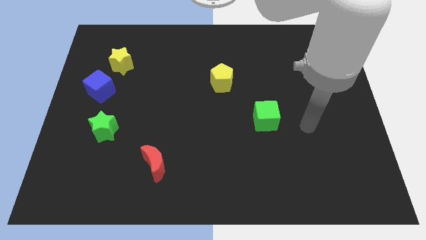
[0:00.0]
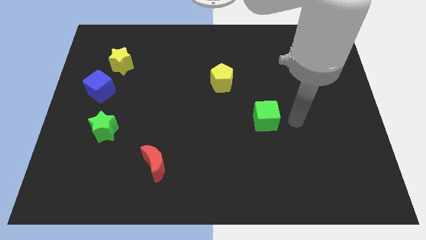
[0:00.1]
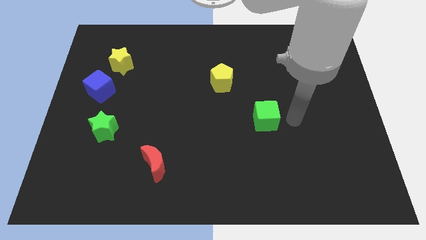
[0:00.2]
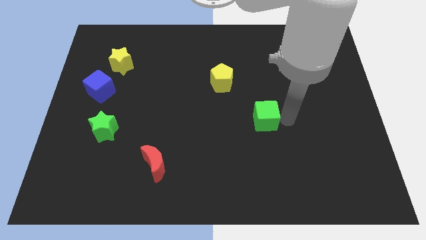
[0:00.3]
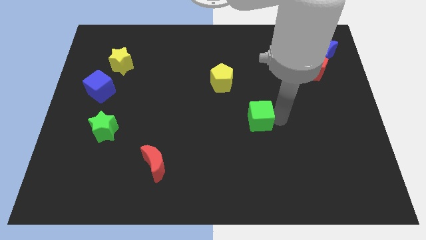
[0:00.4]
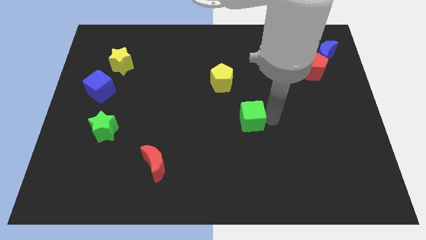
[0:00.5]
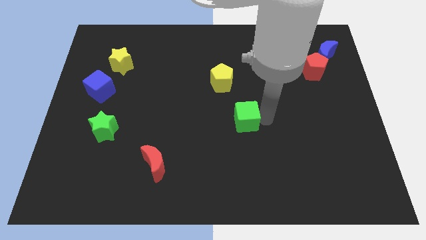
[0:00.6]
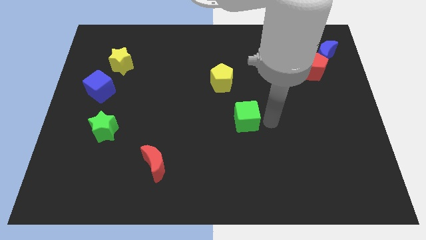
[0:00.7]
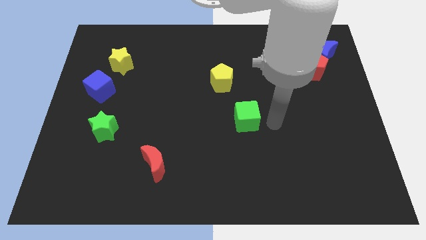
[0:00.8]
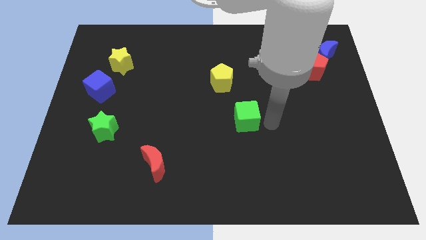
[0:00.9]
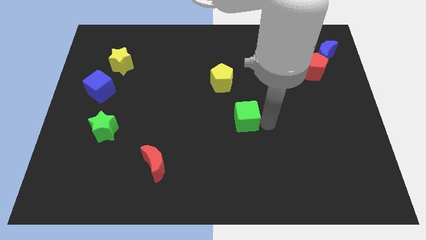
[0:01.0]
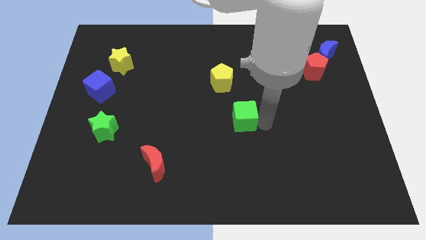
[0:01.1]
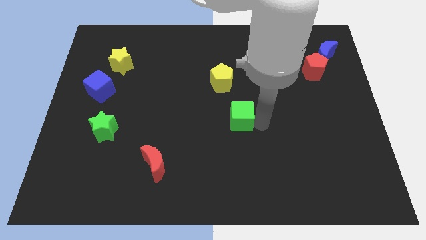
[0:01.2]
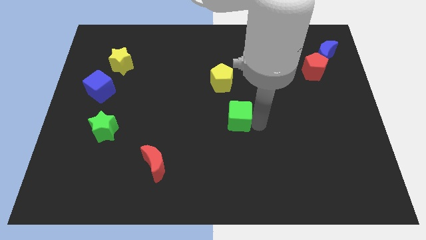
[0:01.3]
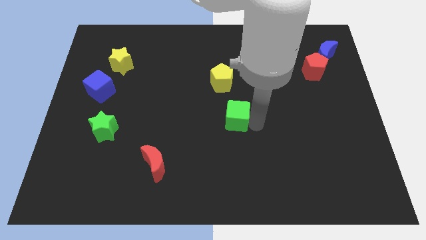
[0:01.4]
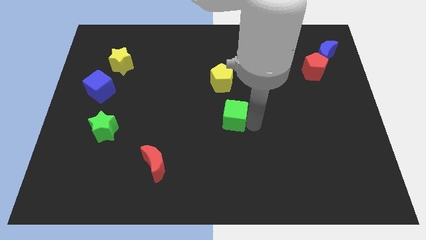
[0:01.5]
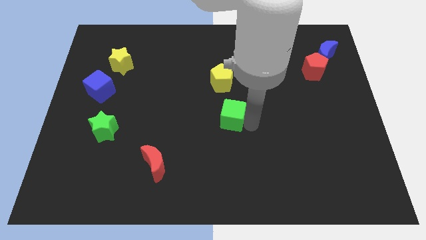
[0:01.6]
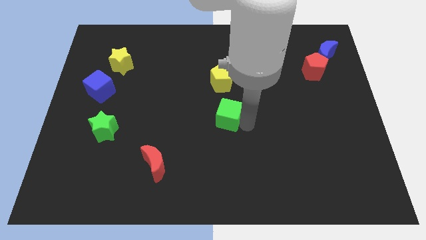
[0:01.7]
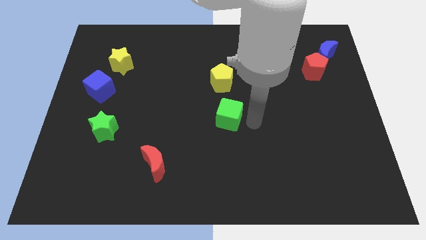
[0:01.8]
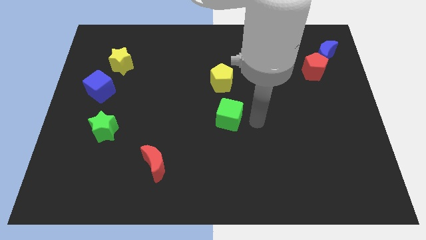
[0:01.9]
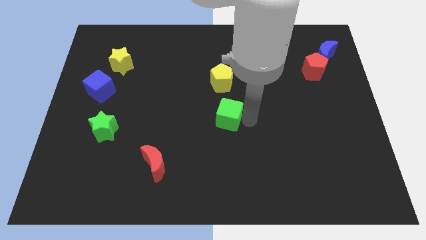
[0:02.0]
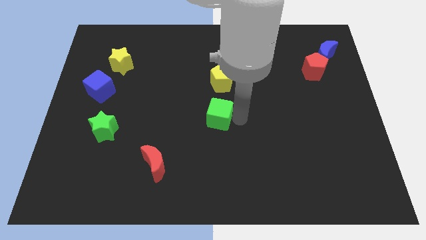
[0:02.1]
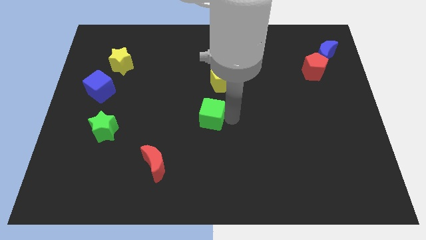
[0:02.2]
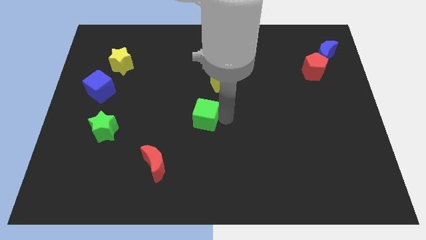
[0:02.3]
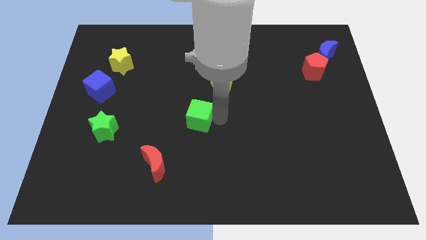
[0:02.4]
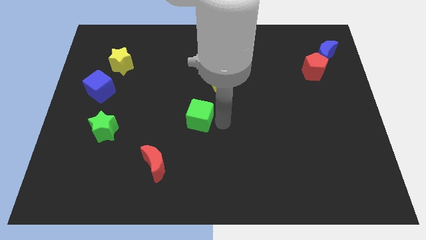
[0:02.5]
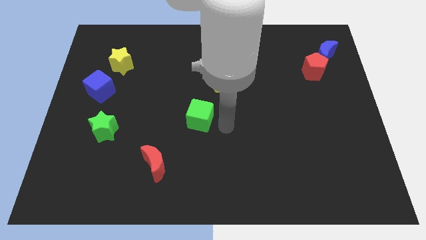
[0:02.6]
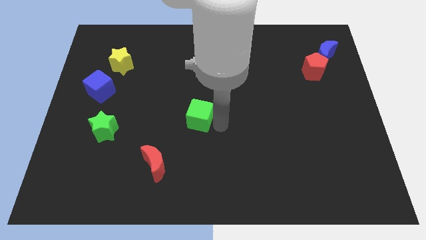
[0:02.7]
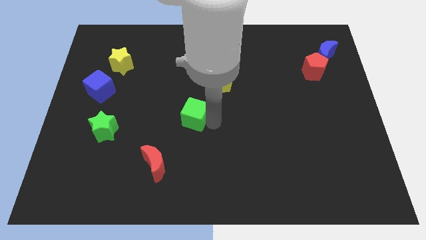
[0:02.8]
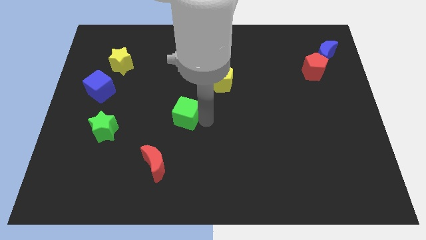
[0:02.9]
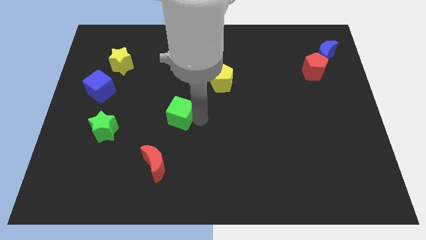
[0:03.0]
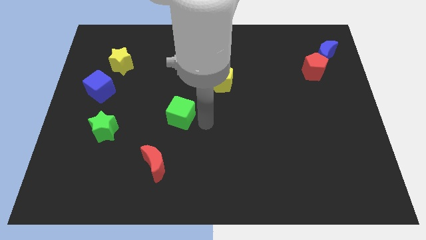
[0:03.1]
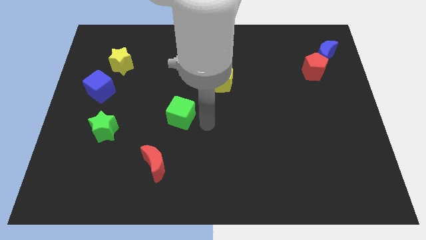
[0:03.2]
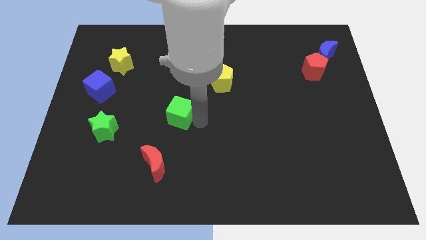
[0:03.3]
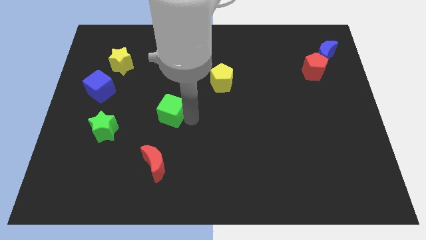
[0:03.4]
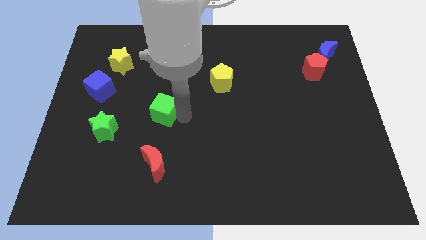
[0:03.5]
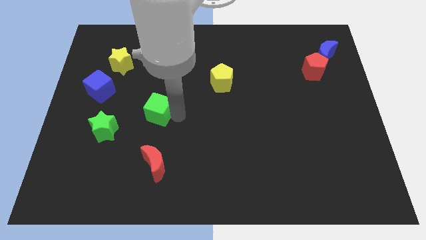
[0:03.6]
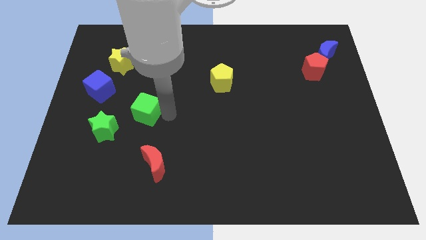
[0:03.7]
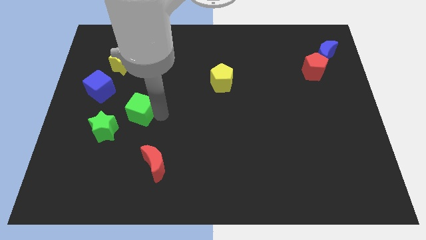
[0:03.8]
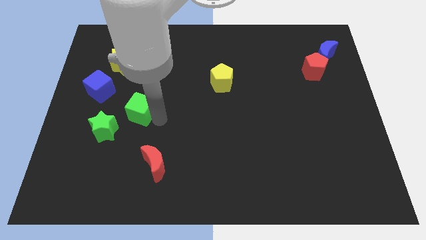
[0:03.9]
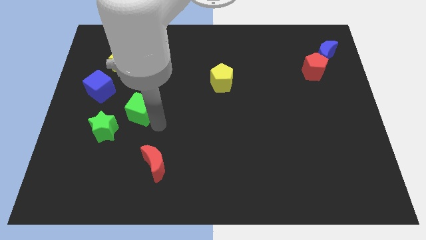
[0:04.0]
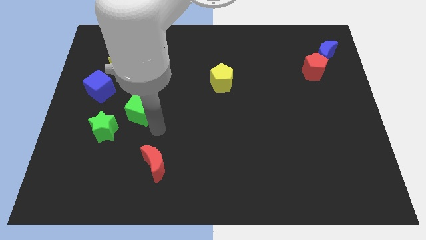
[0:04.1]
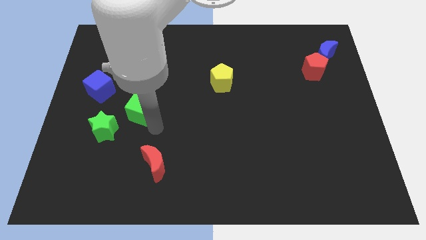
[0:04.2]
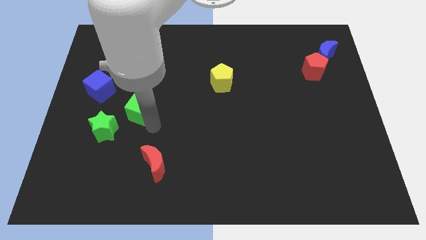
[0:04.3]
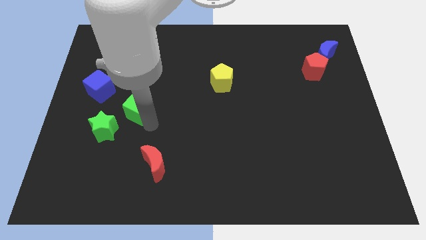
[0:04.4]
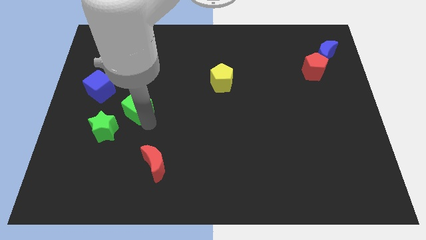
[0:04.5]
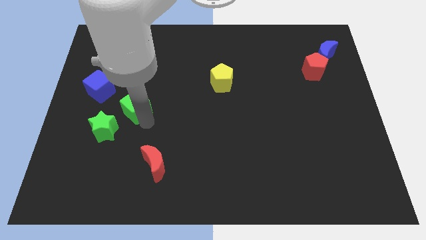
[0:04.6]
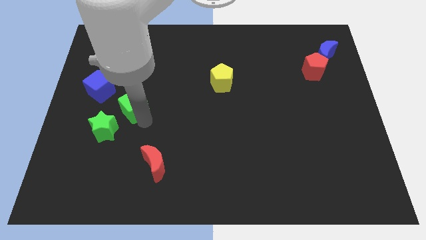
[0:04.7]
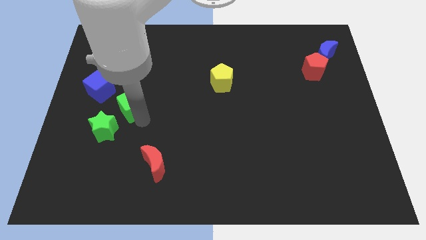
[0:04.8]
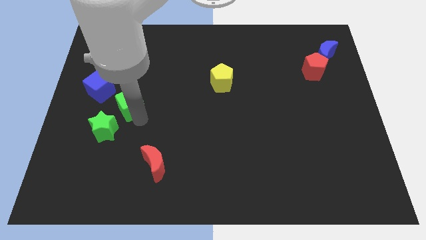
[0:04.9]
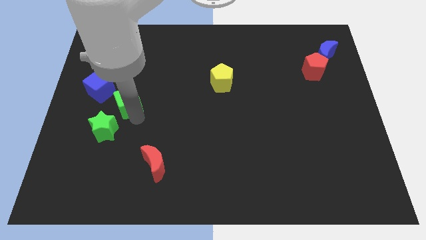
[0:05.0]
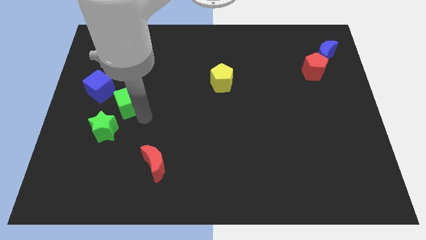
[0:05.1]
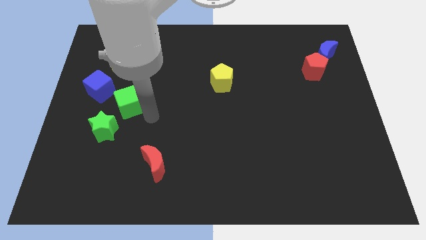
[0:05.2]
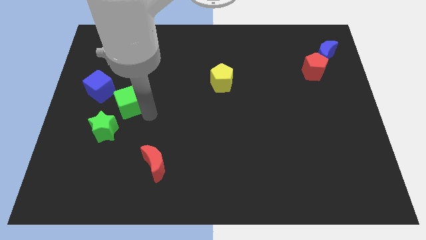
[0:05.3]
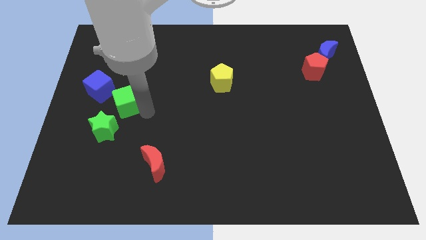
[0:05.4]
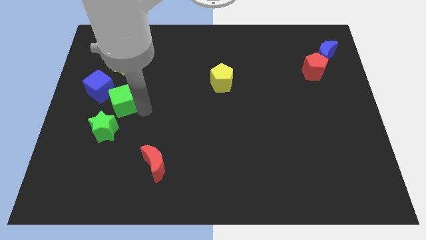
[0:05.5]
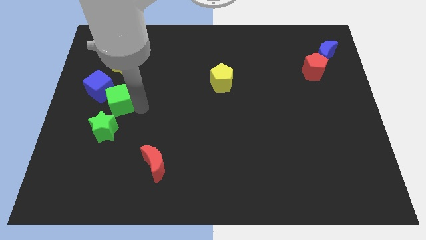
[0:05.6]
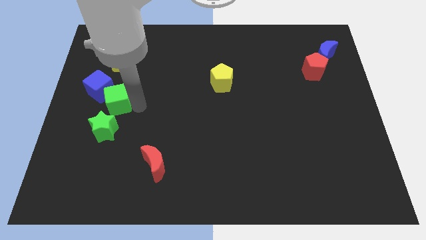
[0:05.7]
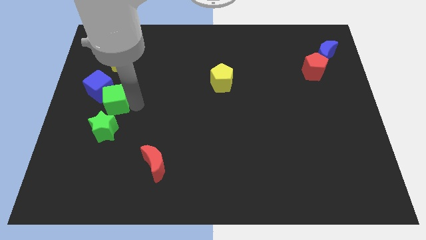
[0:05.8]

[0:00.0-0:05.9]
push the green cube next to the blue cube

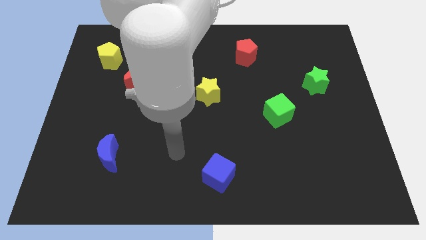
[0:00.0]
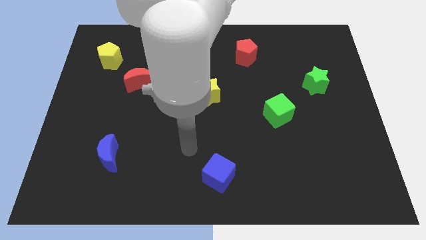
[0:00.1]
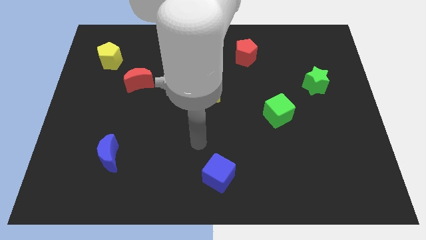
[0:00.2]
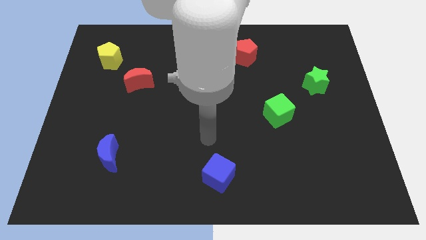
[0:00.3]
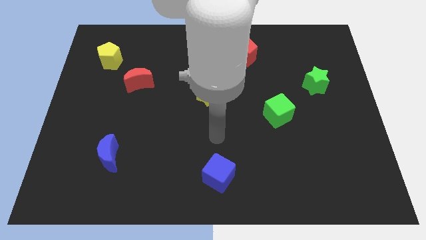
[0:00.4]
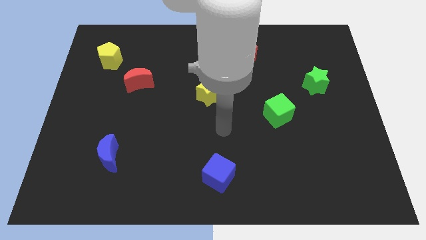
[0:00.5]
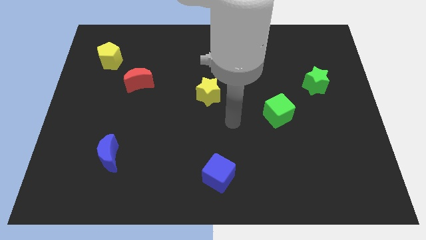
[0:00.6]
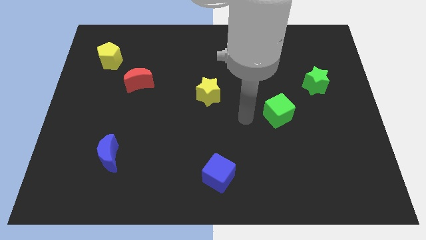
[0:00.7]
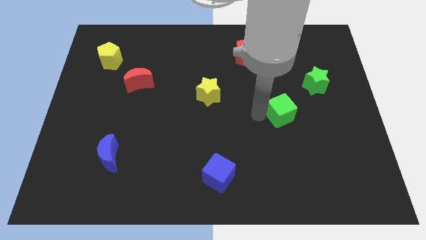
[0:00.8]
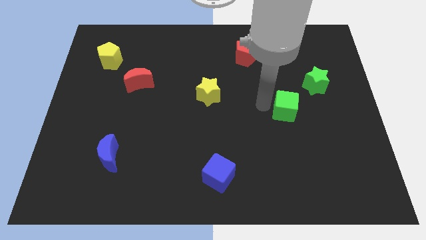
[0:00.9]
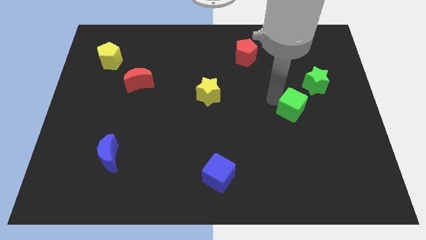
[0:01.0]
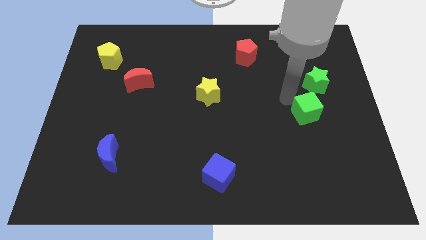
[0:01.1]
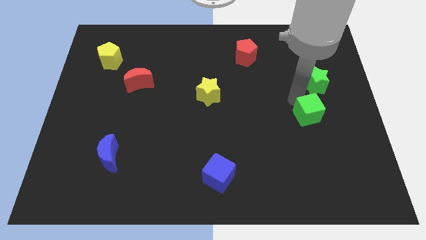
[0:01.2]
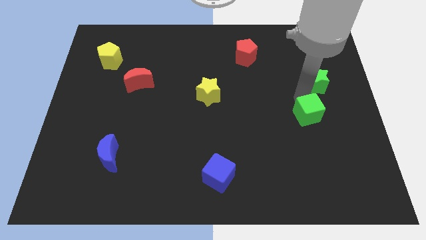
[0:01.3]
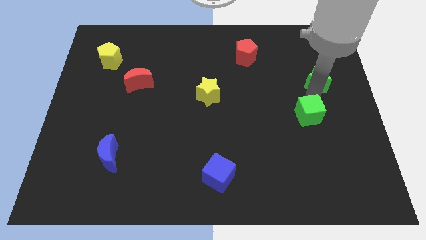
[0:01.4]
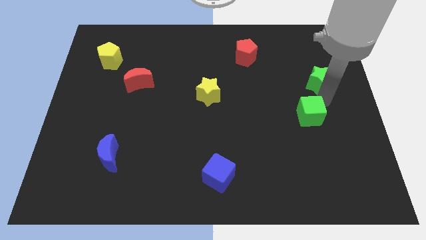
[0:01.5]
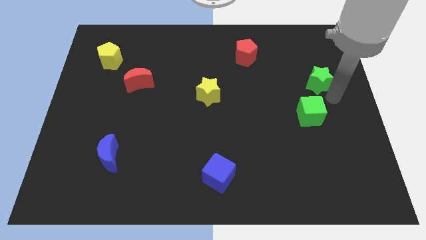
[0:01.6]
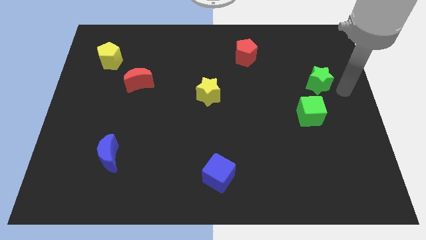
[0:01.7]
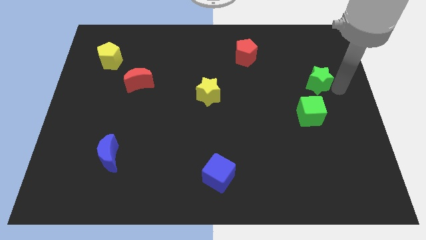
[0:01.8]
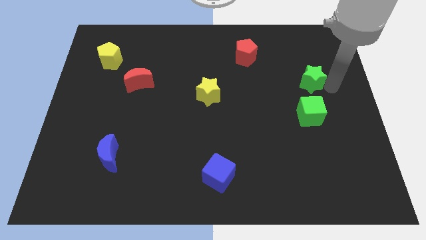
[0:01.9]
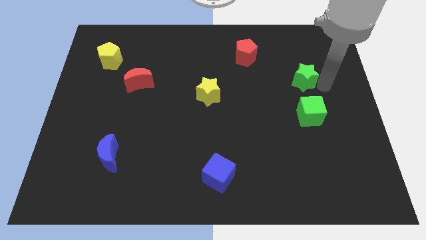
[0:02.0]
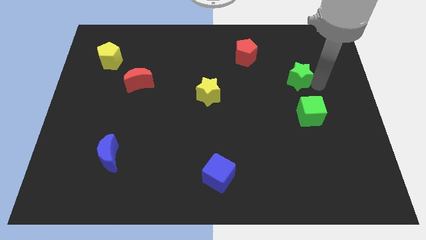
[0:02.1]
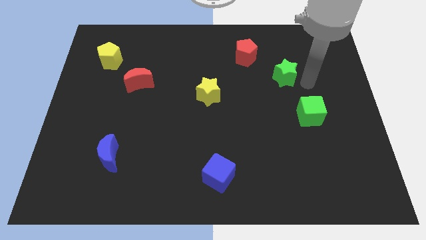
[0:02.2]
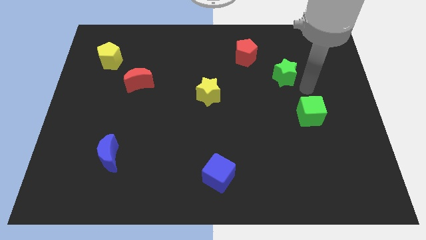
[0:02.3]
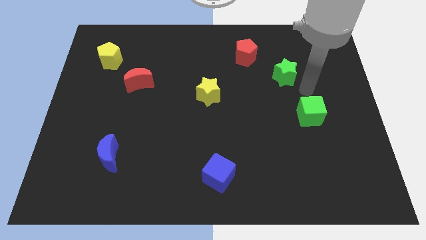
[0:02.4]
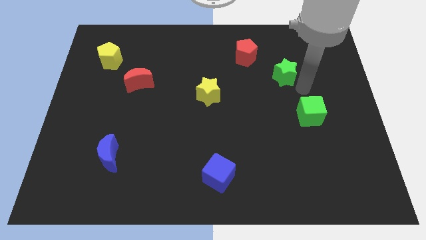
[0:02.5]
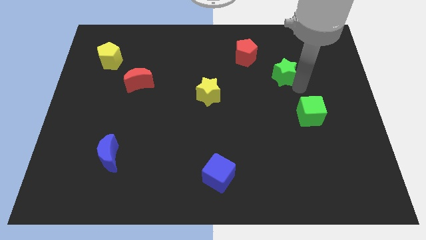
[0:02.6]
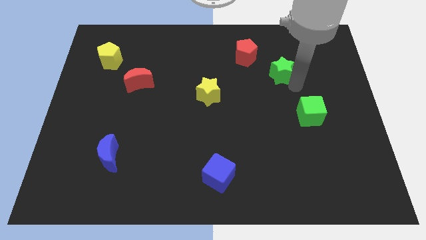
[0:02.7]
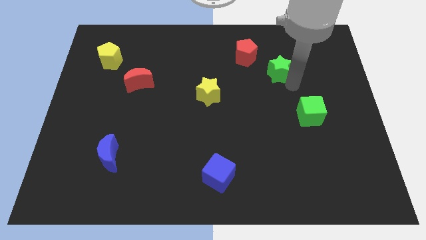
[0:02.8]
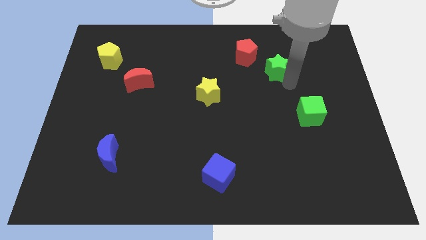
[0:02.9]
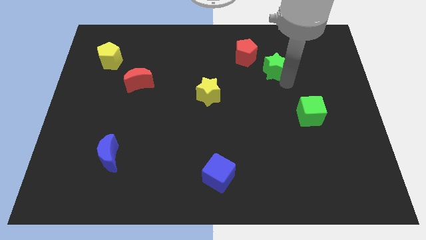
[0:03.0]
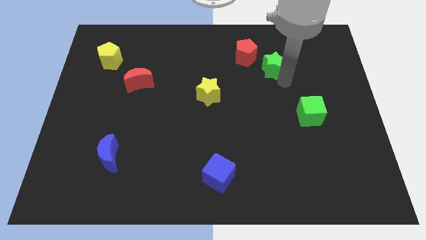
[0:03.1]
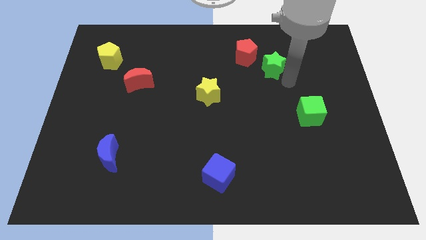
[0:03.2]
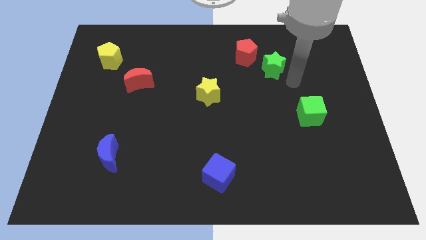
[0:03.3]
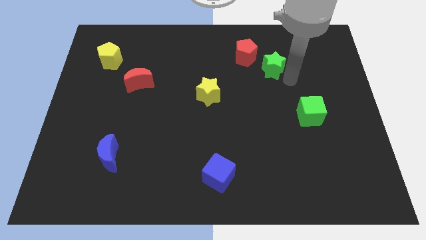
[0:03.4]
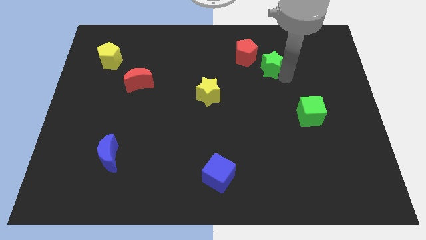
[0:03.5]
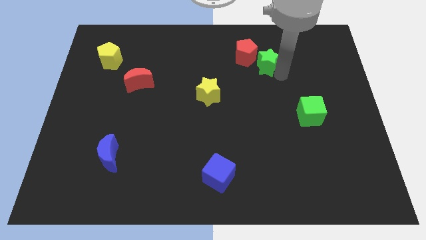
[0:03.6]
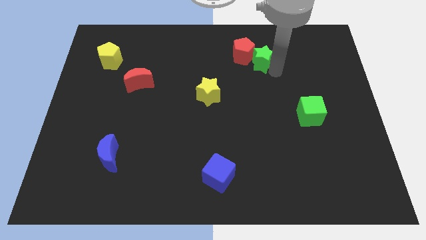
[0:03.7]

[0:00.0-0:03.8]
slide the green star close to the red pentagon
